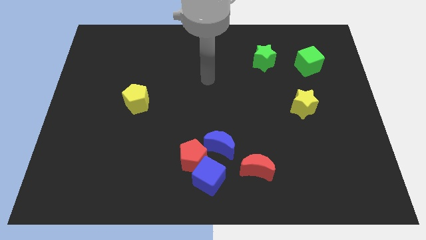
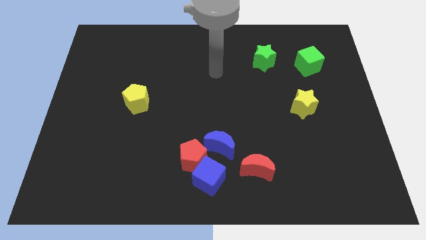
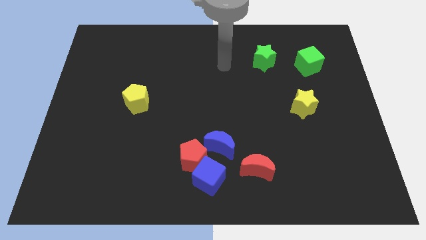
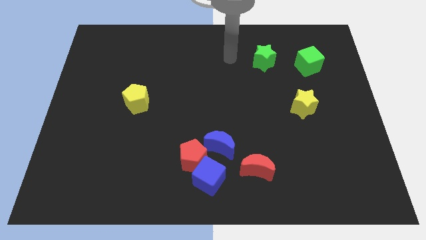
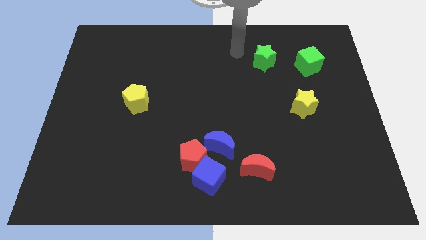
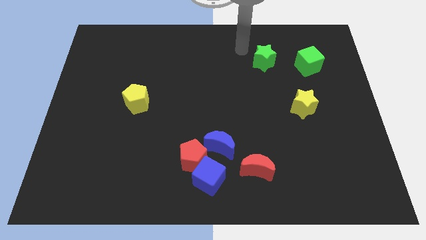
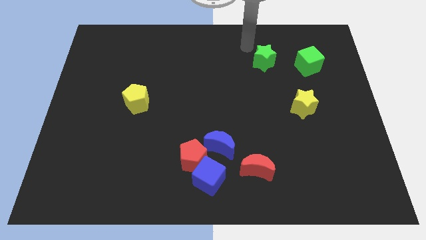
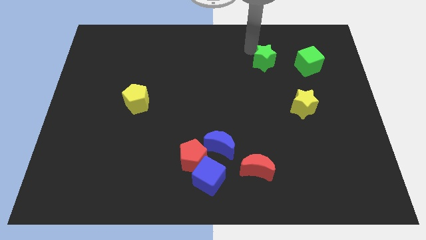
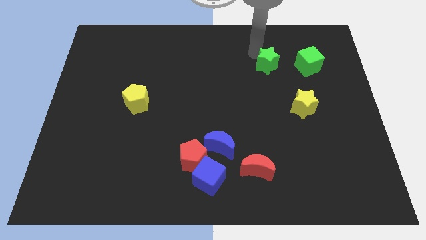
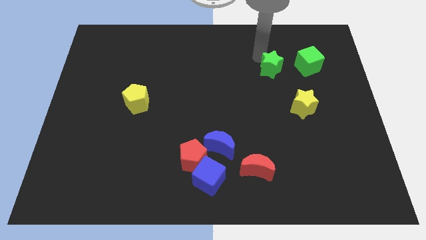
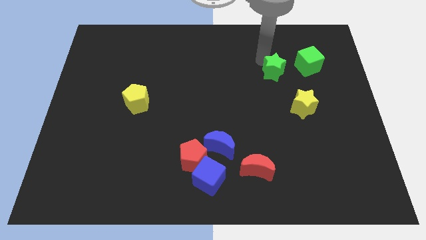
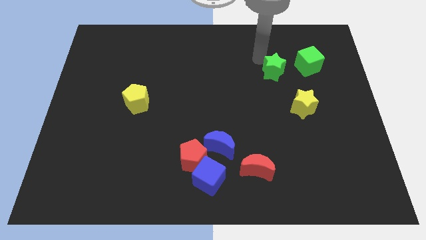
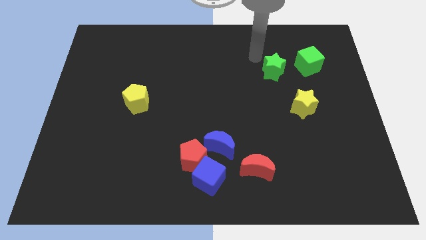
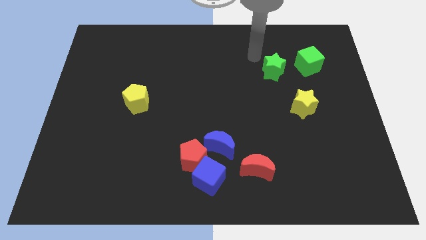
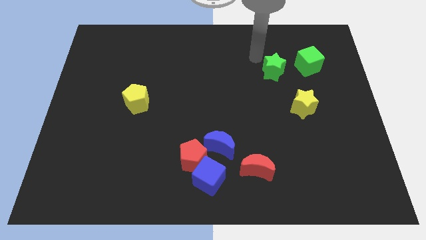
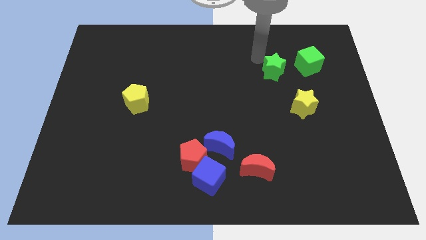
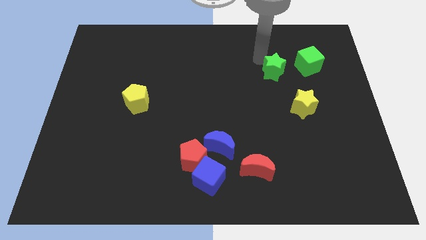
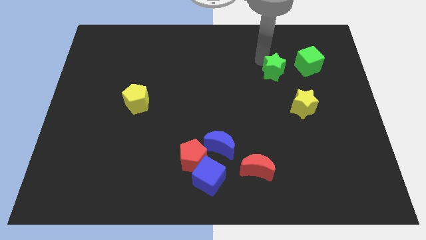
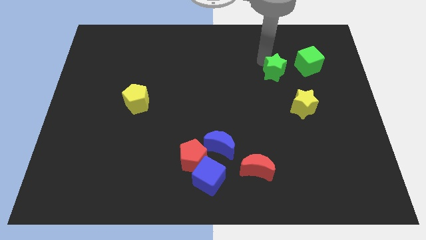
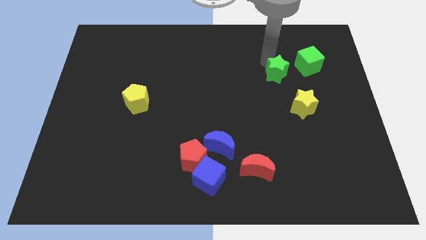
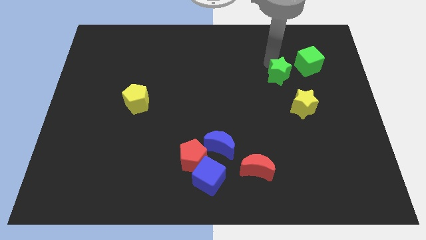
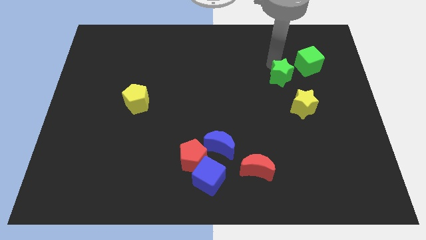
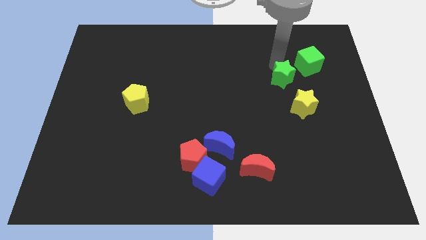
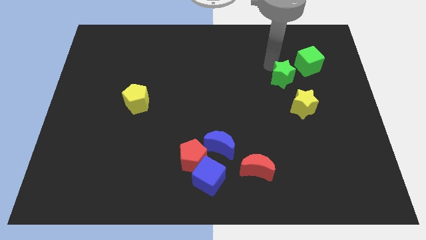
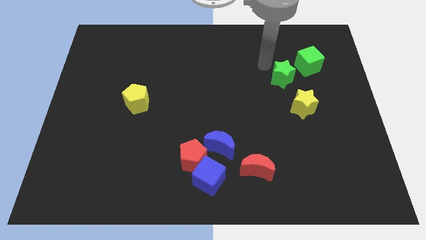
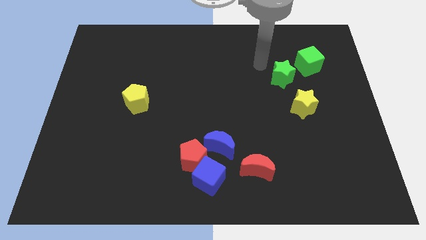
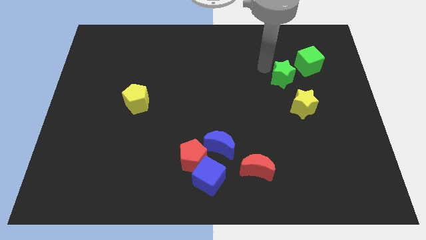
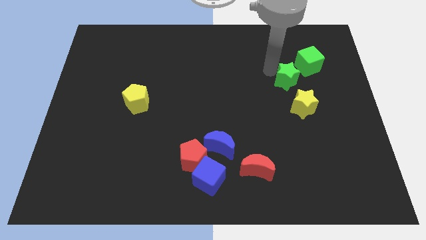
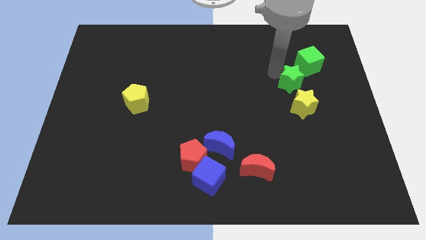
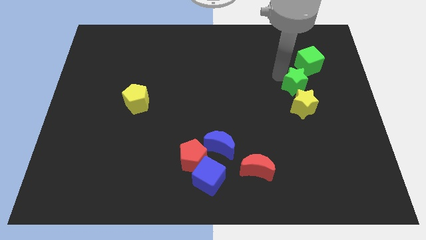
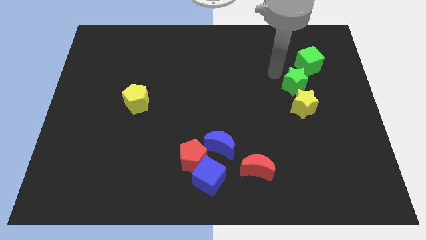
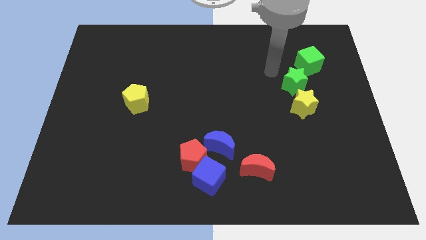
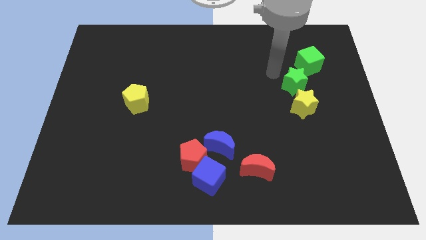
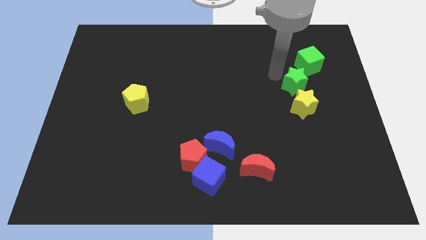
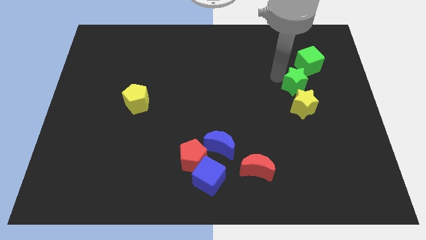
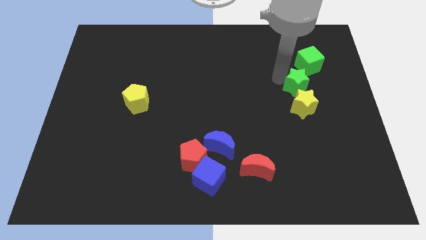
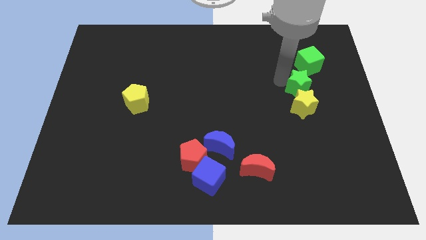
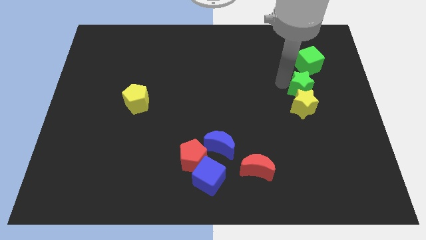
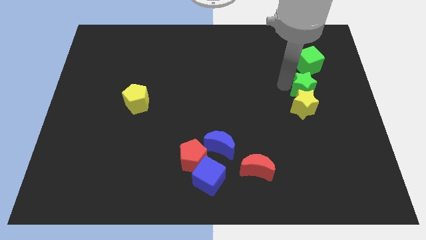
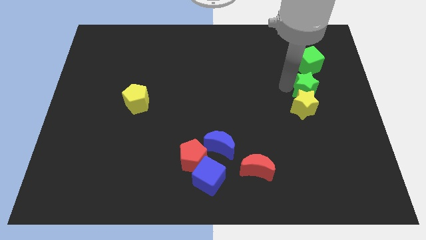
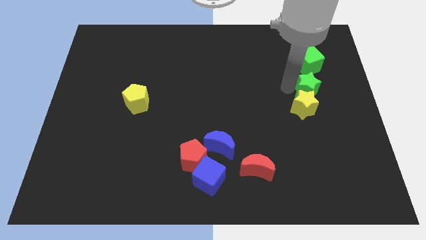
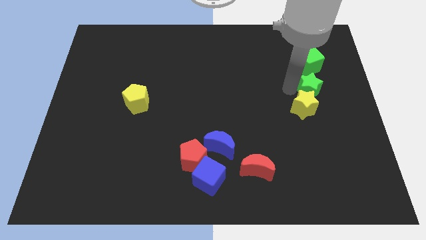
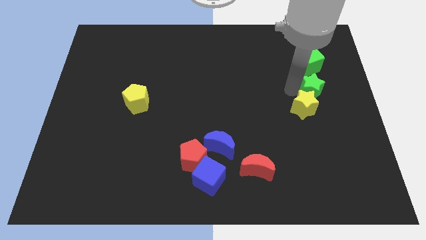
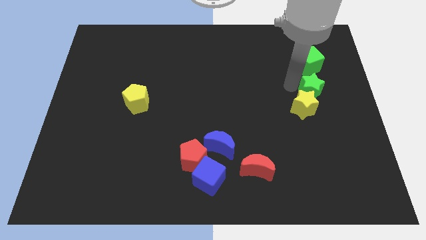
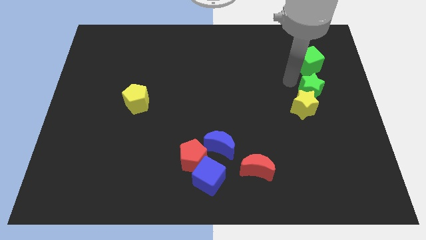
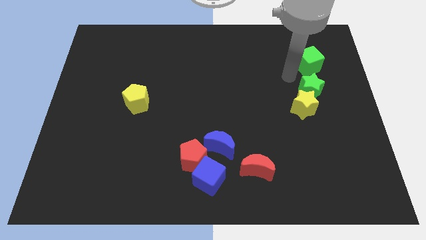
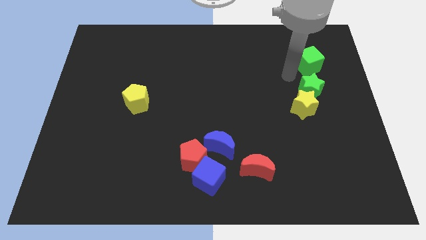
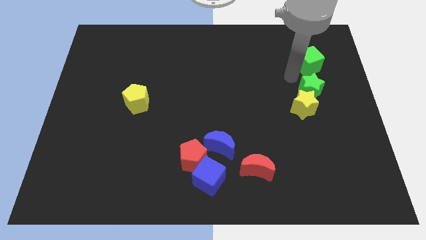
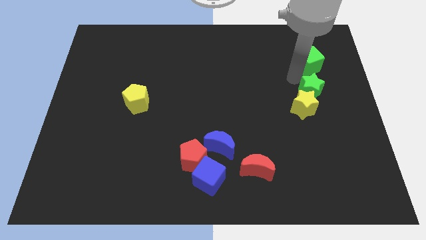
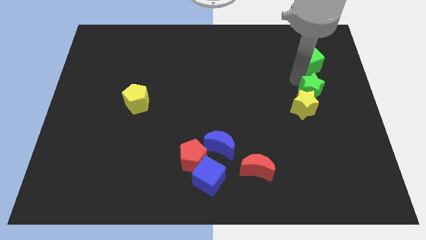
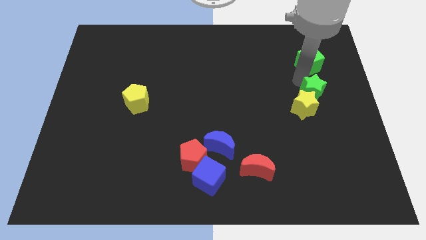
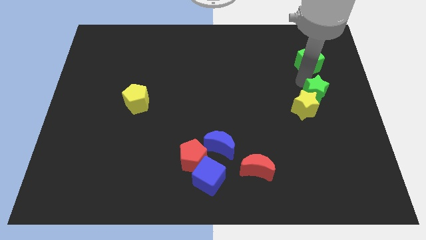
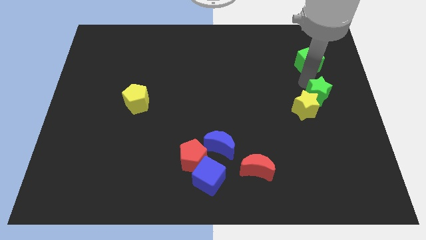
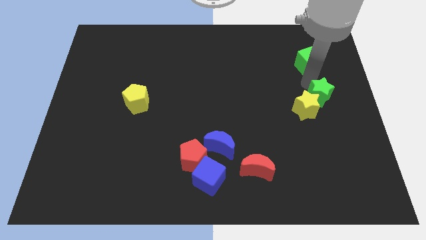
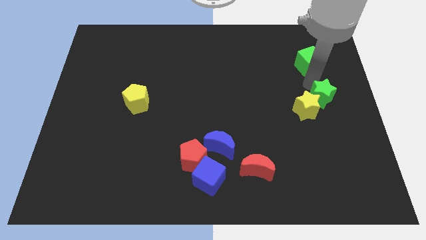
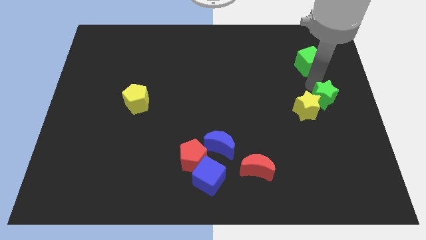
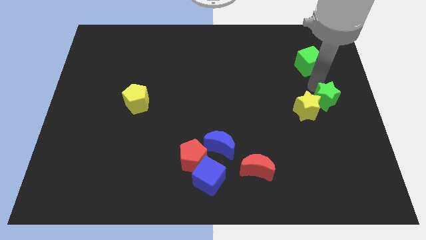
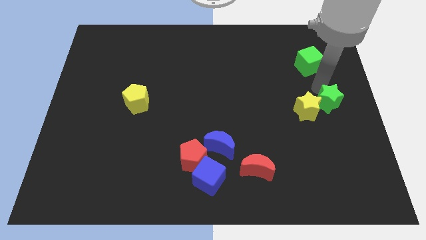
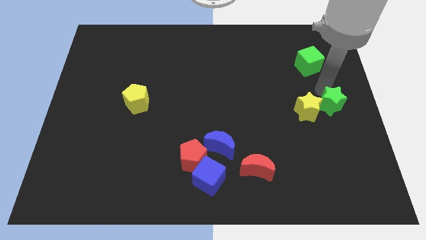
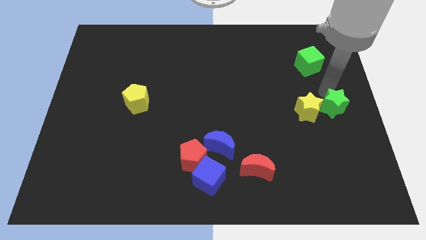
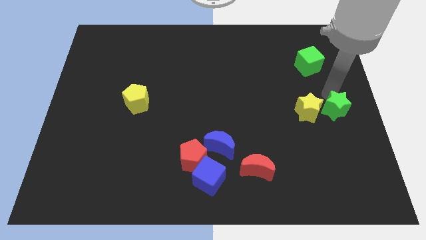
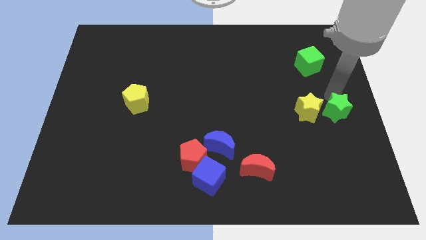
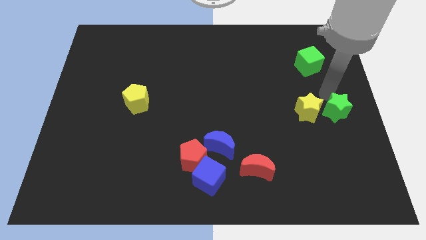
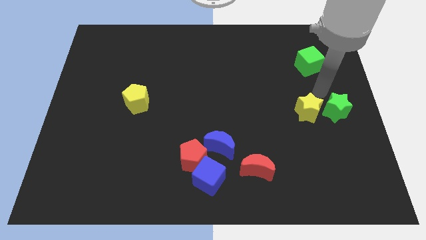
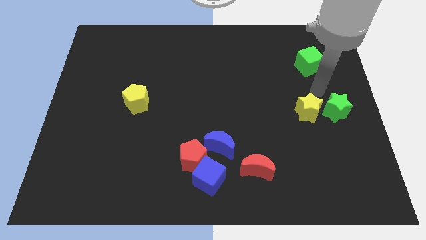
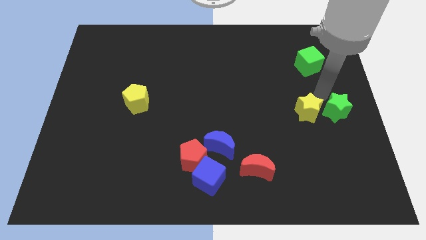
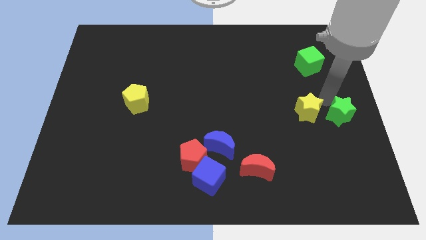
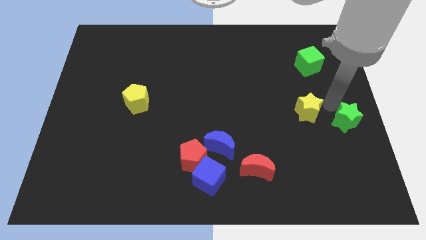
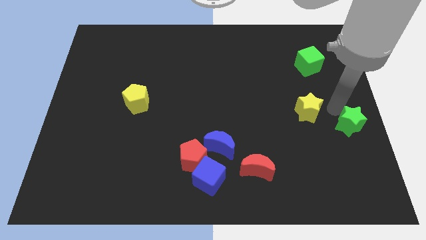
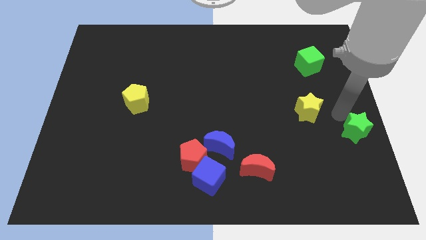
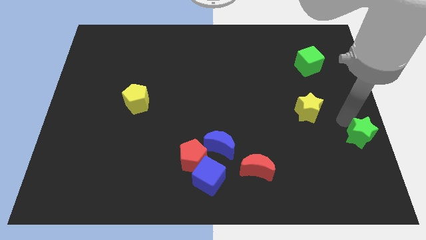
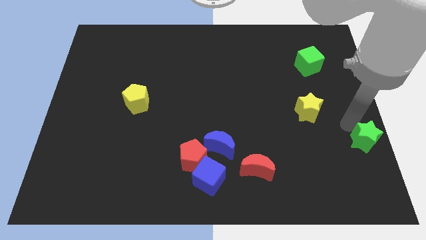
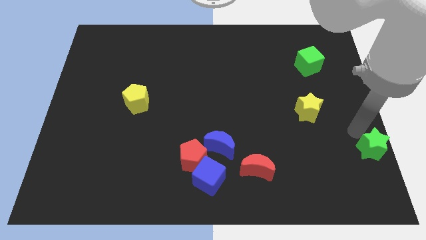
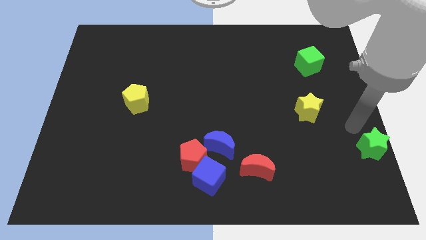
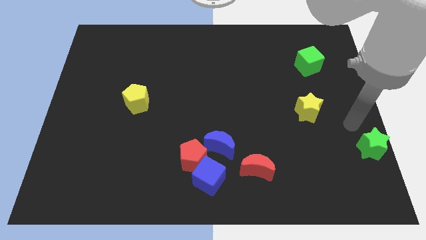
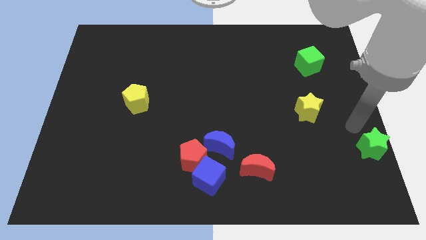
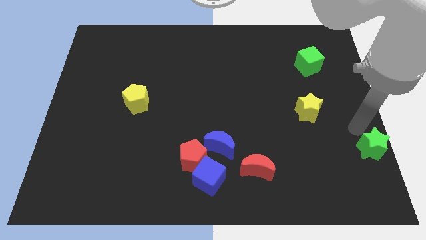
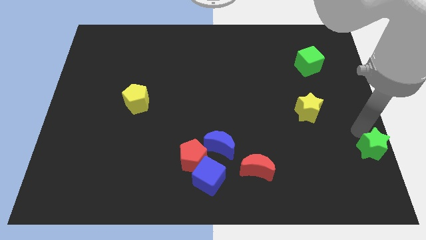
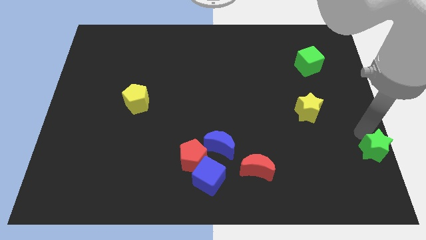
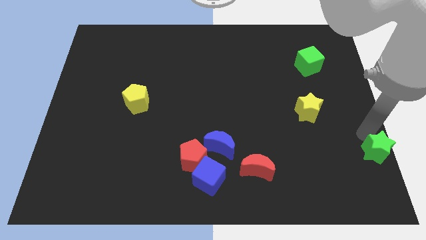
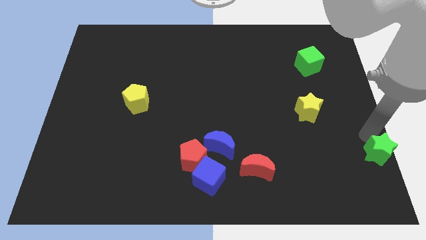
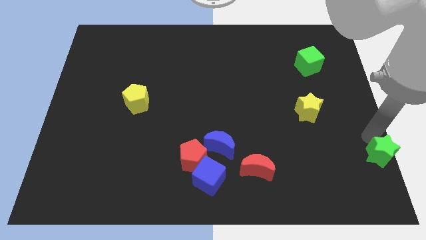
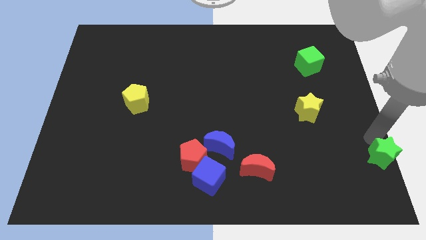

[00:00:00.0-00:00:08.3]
slide the green star to the bottom right of the board
